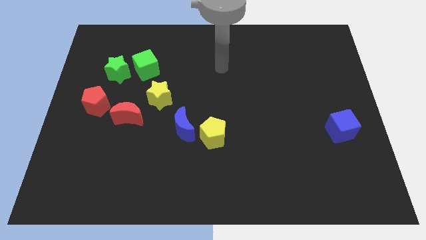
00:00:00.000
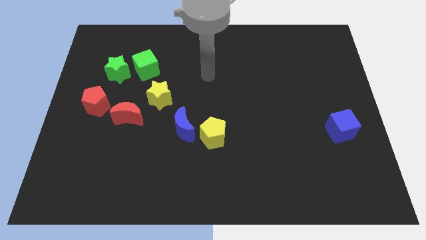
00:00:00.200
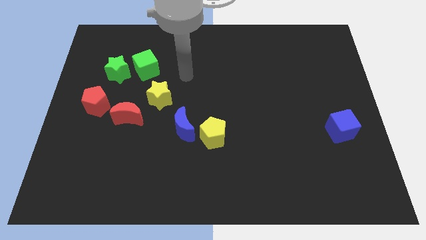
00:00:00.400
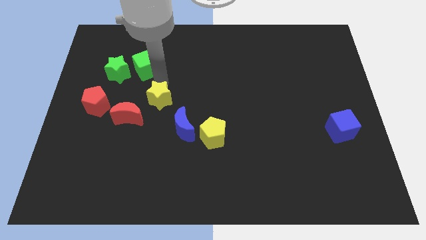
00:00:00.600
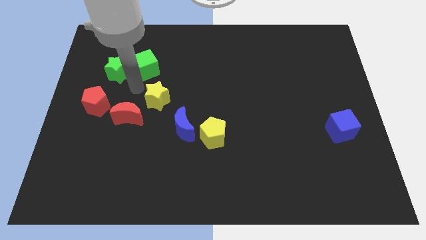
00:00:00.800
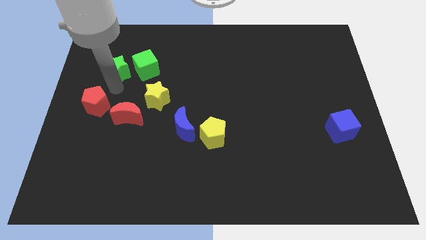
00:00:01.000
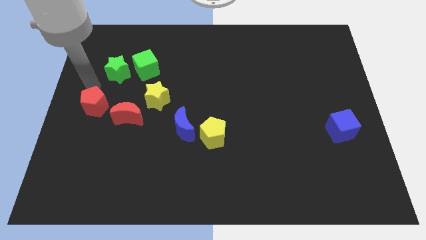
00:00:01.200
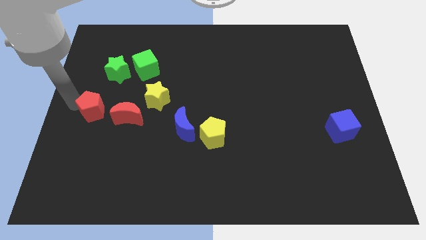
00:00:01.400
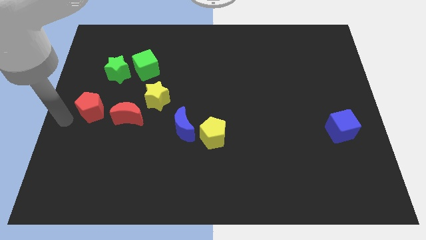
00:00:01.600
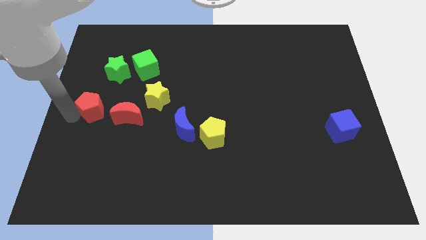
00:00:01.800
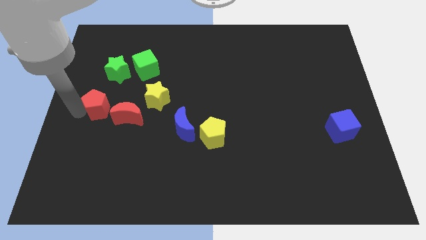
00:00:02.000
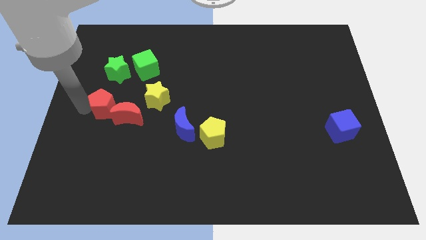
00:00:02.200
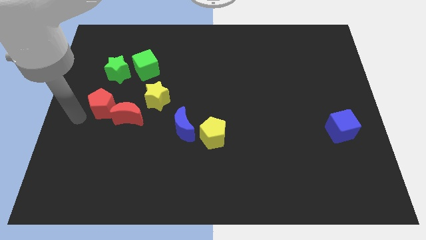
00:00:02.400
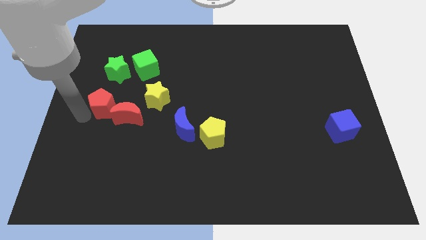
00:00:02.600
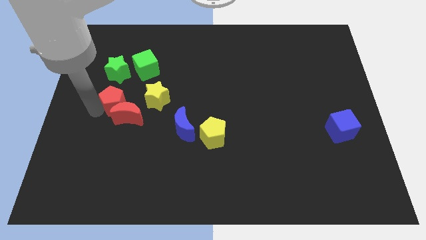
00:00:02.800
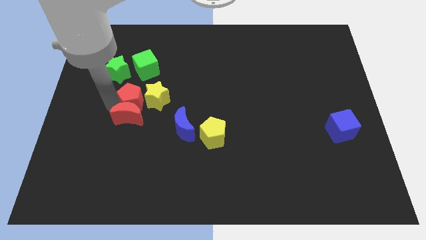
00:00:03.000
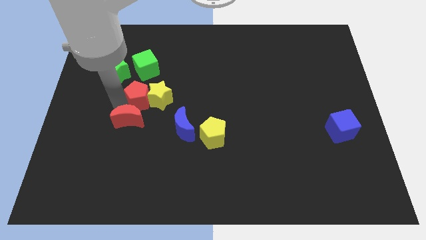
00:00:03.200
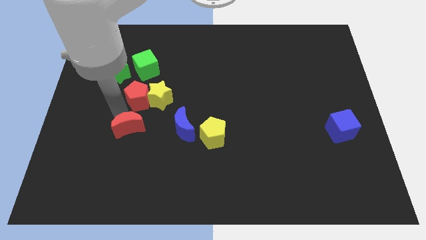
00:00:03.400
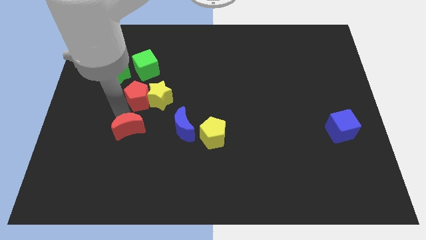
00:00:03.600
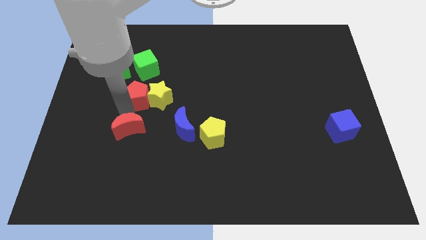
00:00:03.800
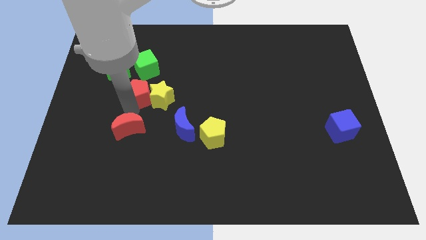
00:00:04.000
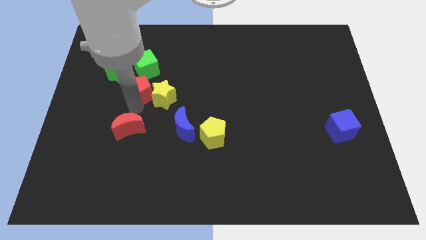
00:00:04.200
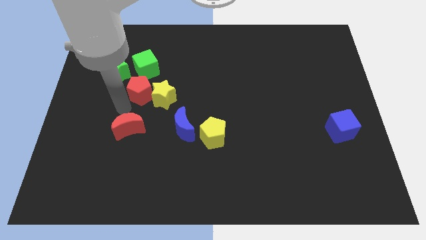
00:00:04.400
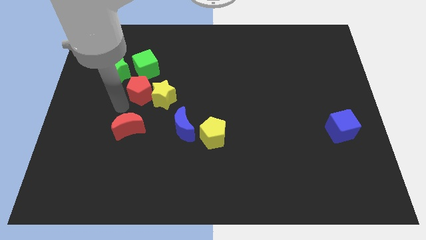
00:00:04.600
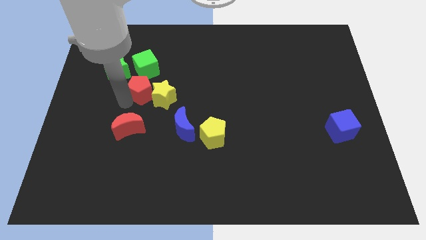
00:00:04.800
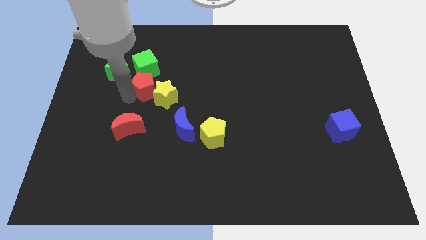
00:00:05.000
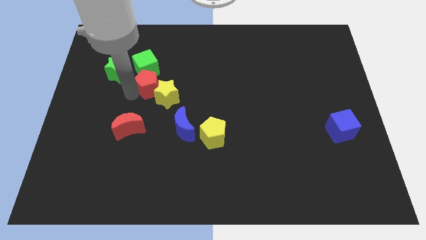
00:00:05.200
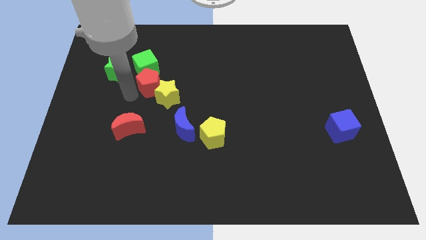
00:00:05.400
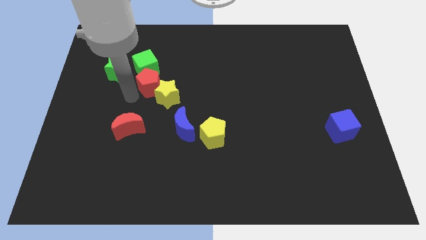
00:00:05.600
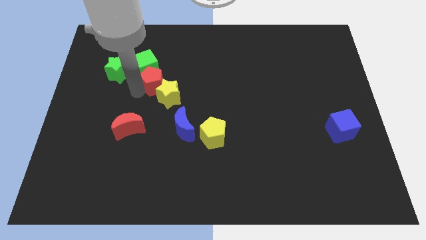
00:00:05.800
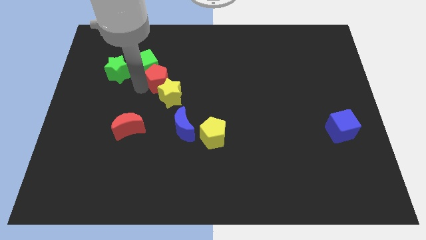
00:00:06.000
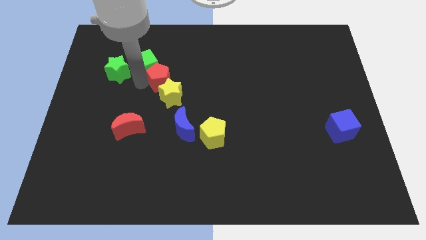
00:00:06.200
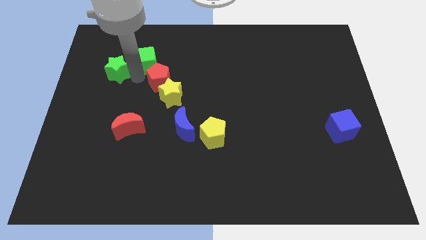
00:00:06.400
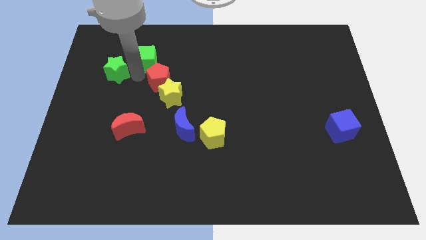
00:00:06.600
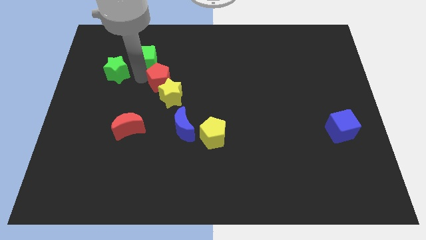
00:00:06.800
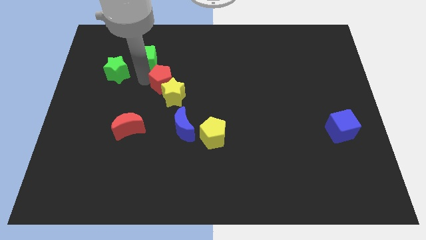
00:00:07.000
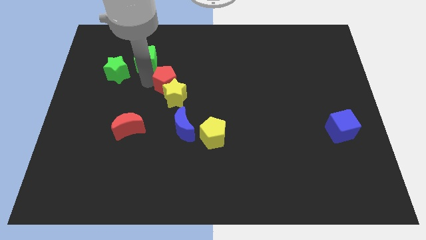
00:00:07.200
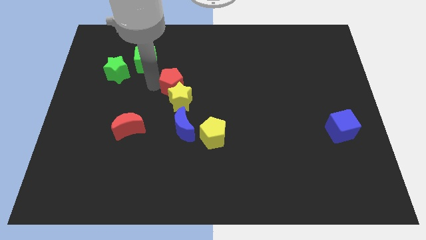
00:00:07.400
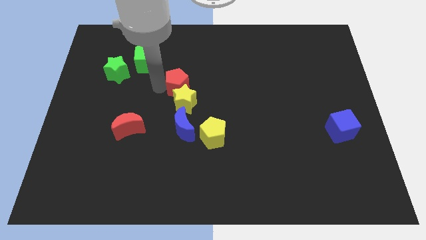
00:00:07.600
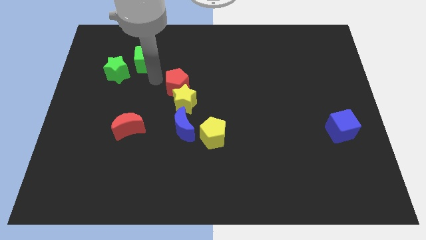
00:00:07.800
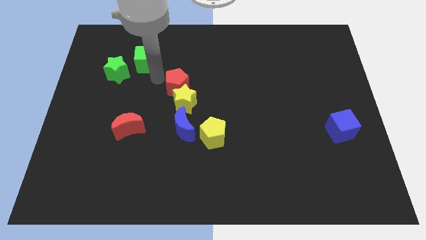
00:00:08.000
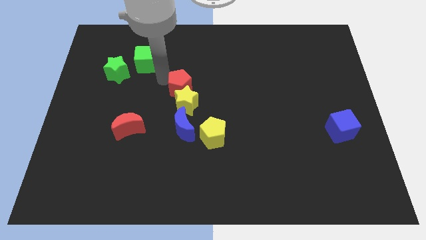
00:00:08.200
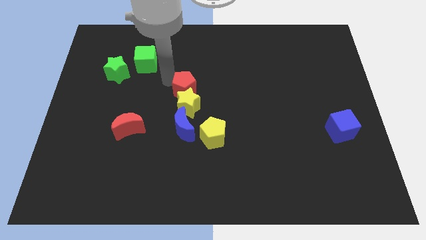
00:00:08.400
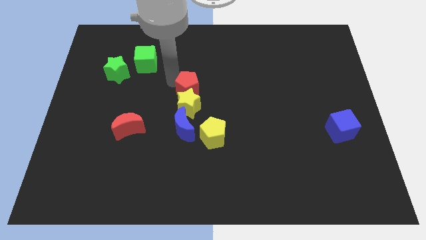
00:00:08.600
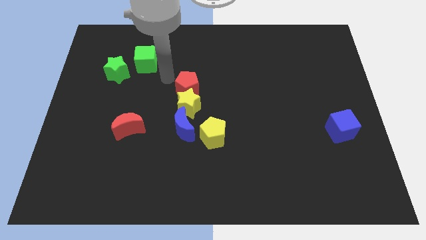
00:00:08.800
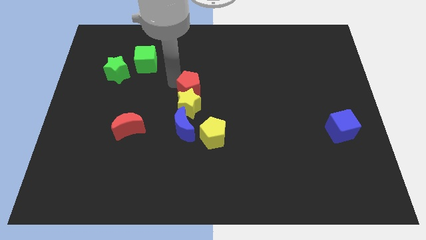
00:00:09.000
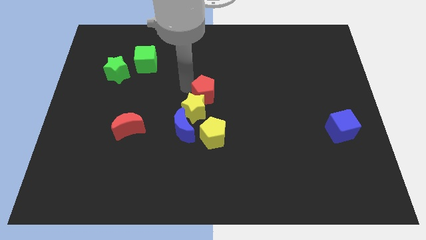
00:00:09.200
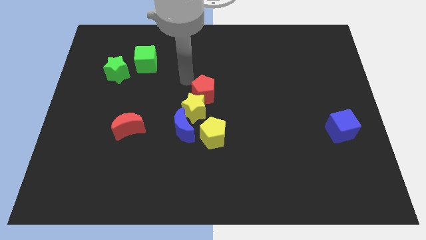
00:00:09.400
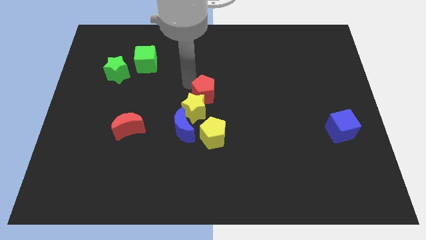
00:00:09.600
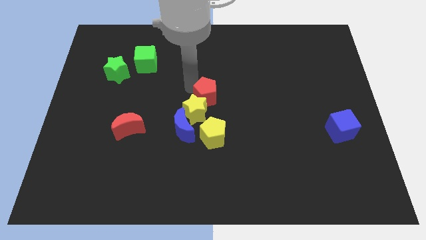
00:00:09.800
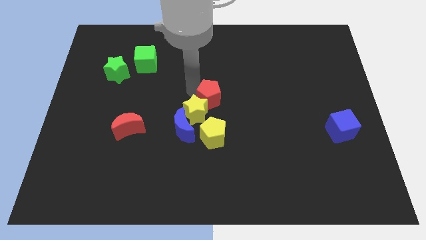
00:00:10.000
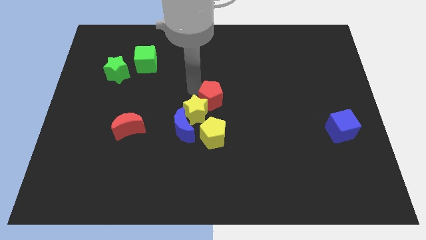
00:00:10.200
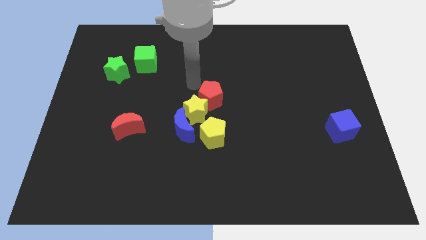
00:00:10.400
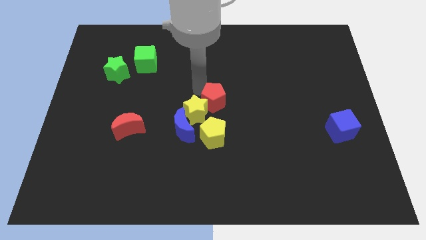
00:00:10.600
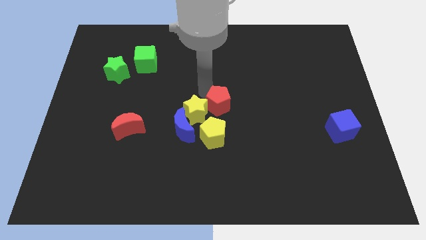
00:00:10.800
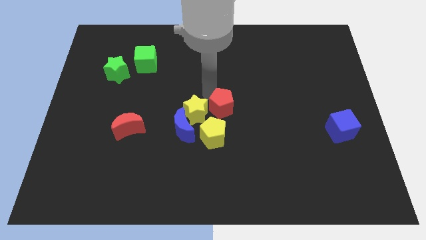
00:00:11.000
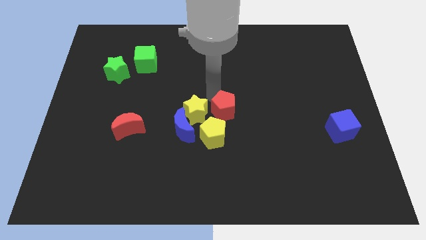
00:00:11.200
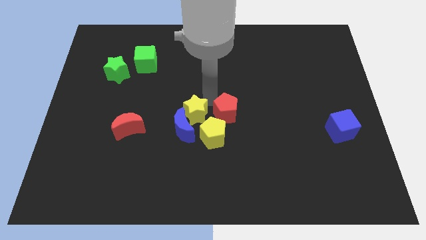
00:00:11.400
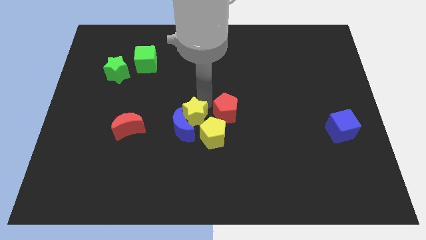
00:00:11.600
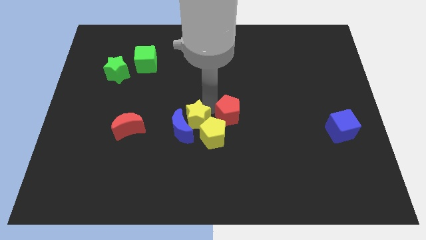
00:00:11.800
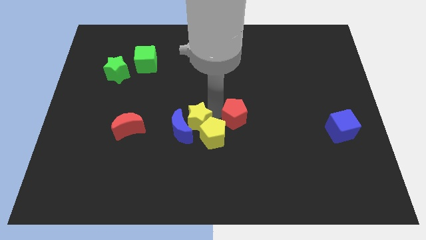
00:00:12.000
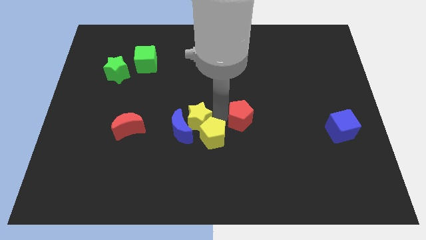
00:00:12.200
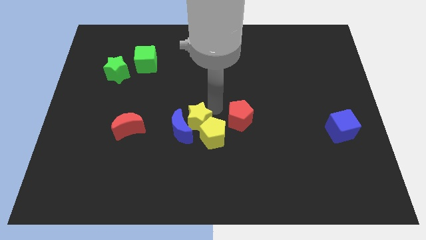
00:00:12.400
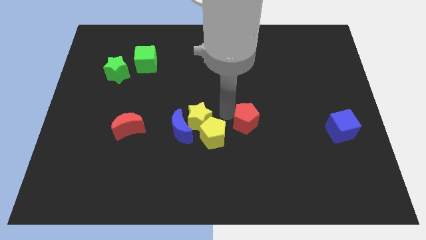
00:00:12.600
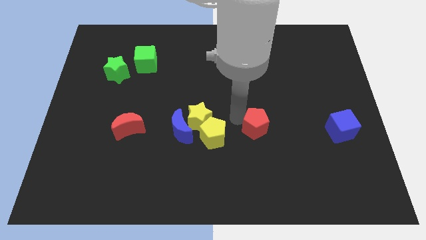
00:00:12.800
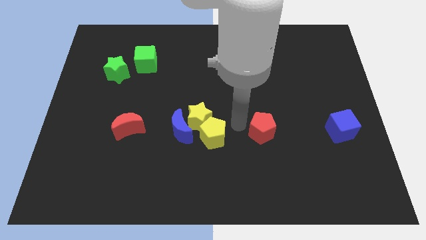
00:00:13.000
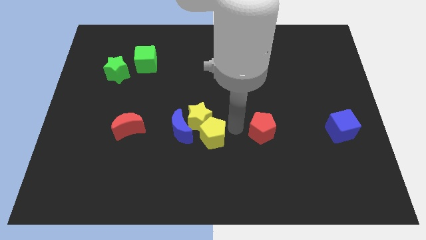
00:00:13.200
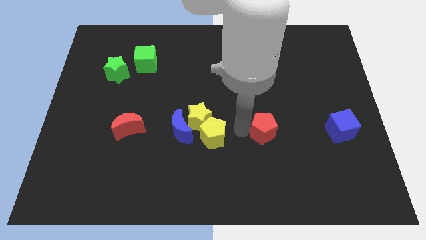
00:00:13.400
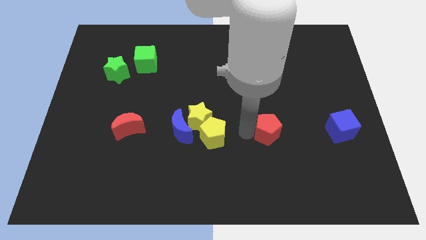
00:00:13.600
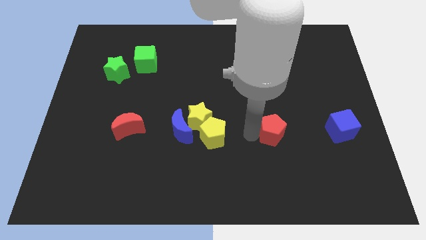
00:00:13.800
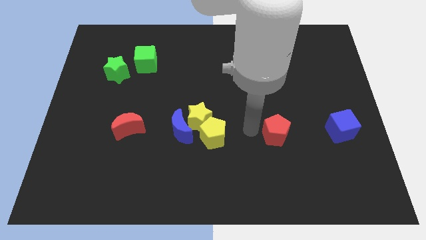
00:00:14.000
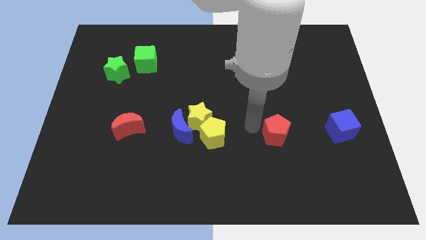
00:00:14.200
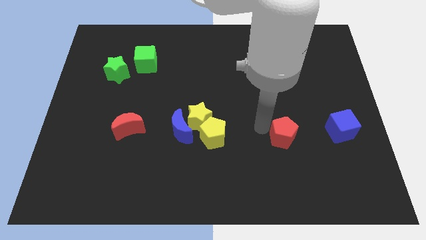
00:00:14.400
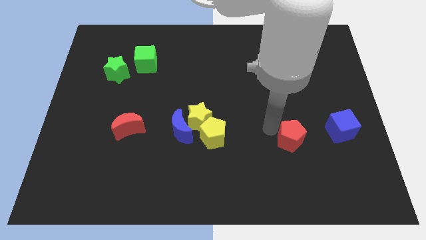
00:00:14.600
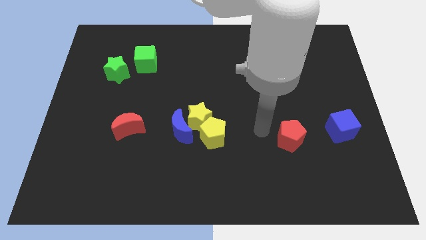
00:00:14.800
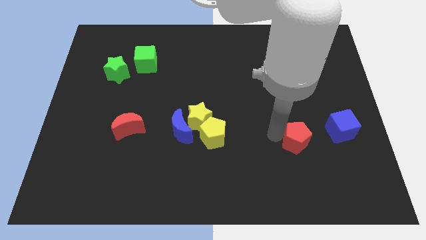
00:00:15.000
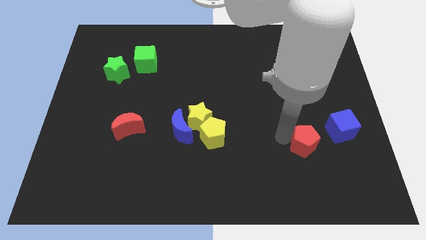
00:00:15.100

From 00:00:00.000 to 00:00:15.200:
push the red pentagon to the bottom left of the blue cube
